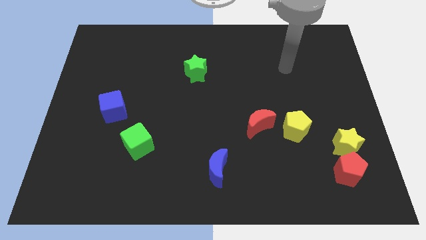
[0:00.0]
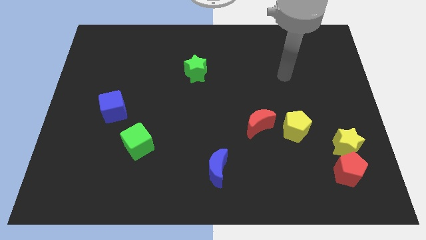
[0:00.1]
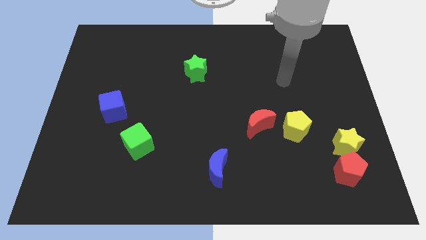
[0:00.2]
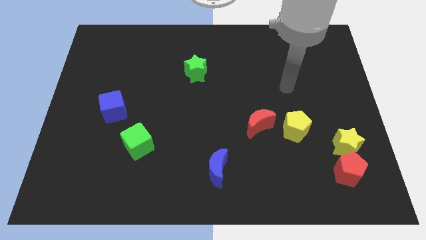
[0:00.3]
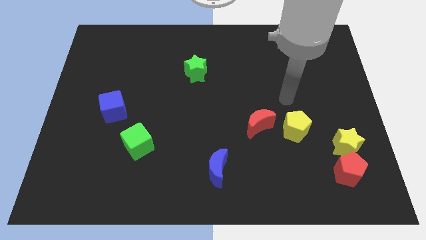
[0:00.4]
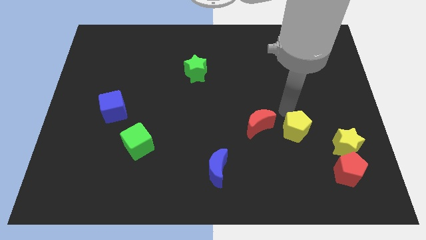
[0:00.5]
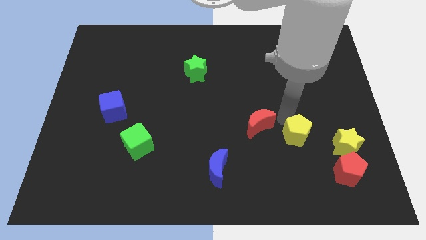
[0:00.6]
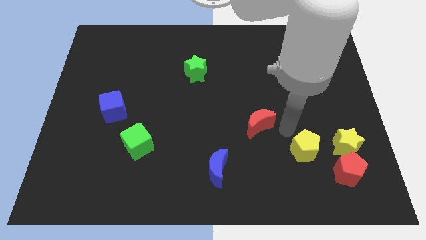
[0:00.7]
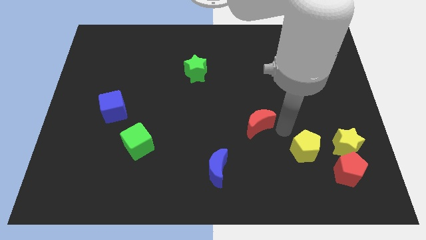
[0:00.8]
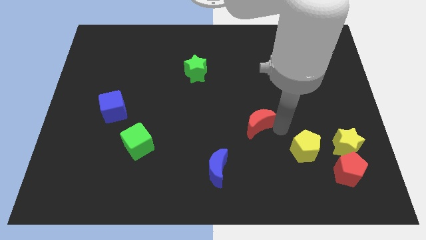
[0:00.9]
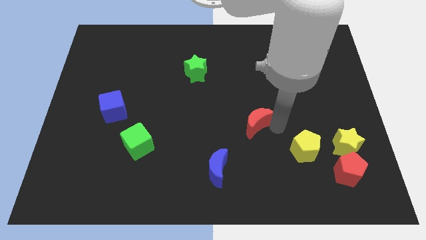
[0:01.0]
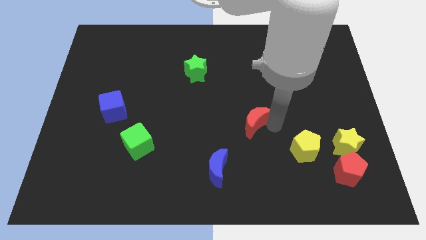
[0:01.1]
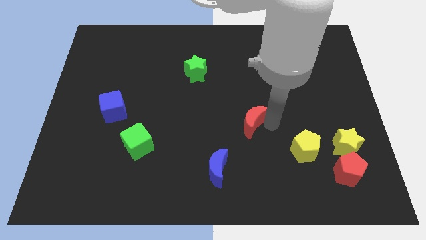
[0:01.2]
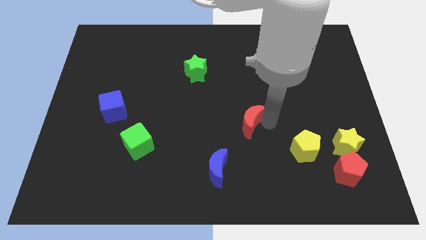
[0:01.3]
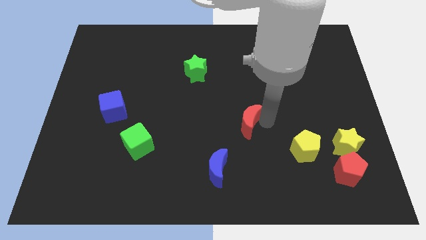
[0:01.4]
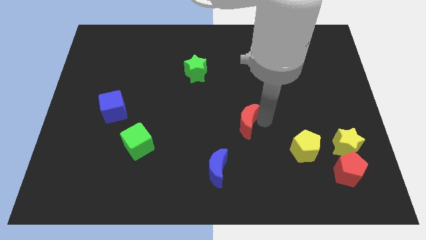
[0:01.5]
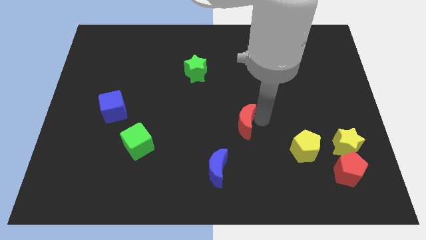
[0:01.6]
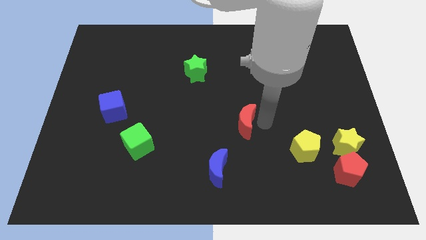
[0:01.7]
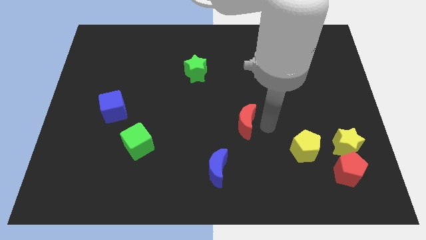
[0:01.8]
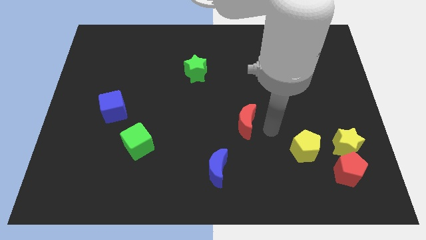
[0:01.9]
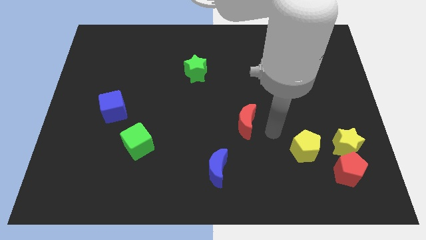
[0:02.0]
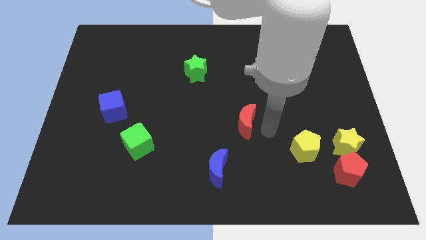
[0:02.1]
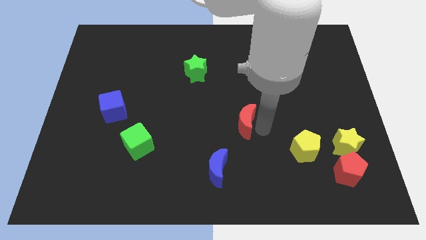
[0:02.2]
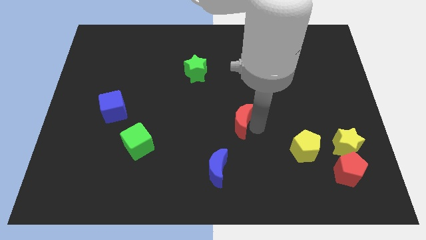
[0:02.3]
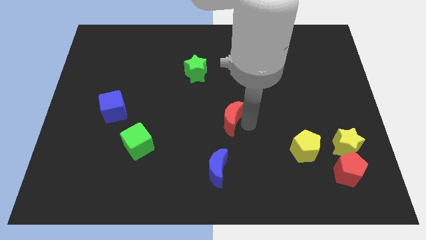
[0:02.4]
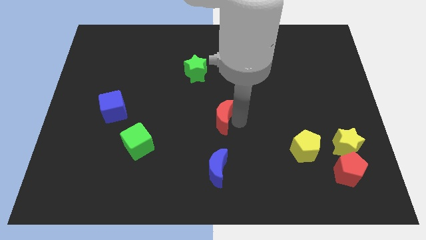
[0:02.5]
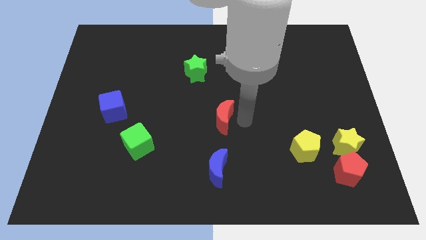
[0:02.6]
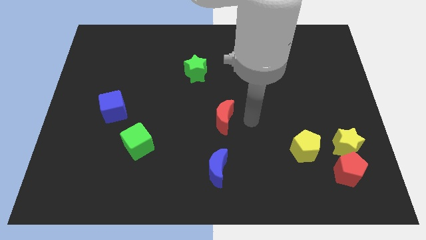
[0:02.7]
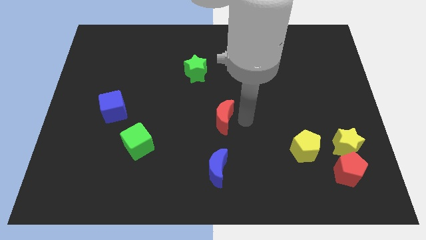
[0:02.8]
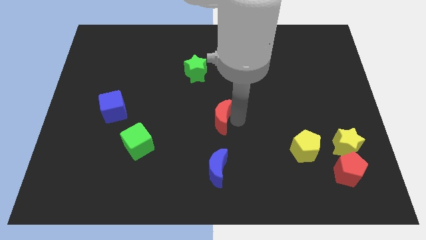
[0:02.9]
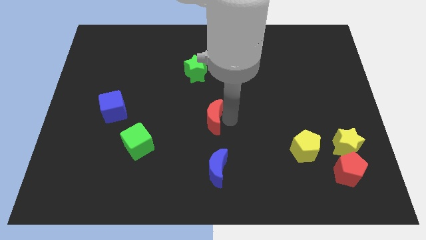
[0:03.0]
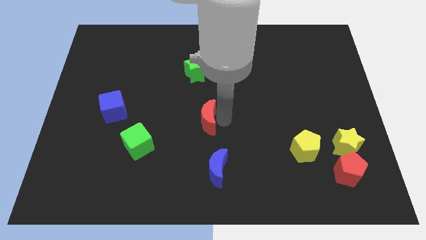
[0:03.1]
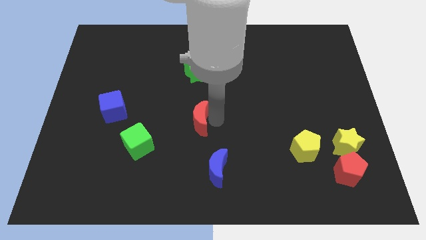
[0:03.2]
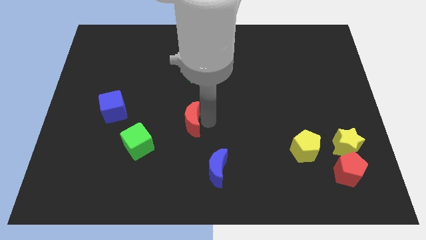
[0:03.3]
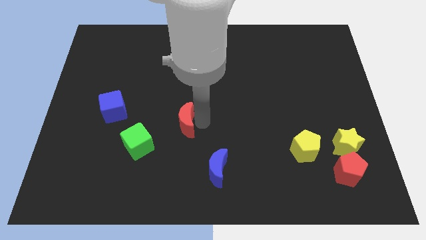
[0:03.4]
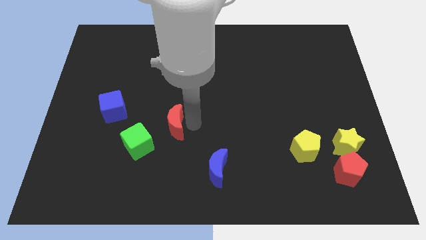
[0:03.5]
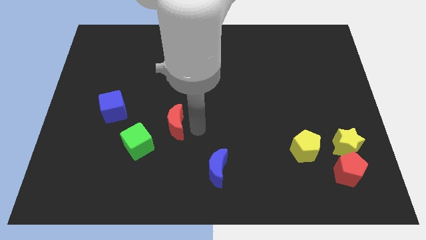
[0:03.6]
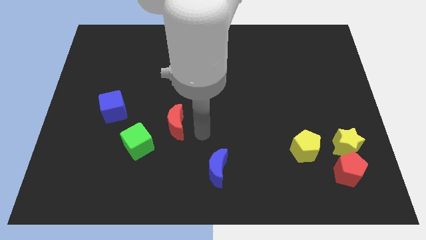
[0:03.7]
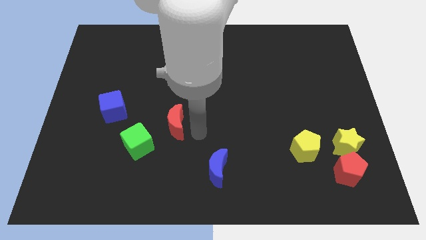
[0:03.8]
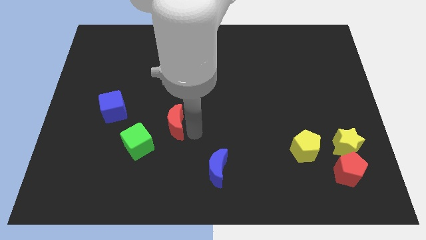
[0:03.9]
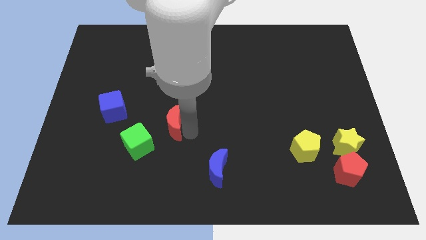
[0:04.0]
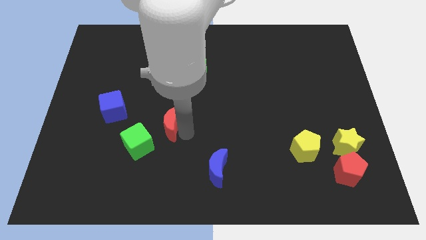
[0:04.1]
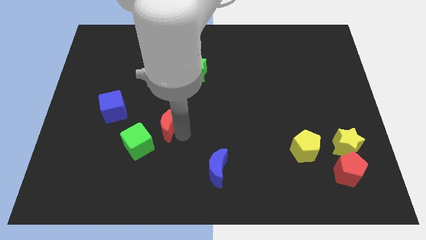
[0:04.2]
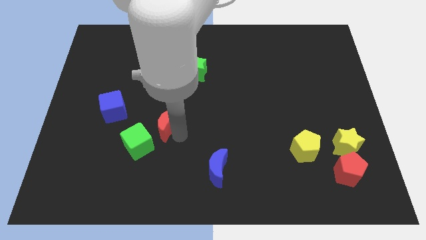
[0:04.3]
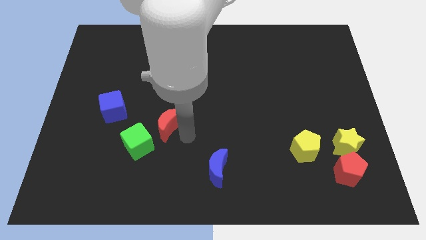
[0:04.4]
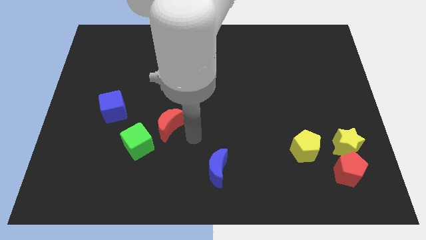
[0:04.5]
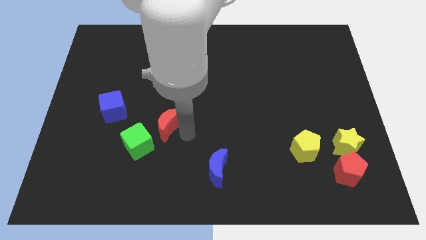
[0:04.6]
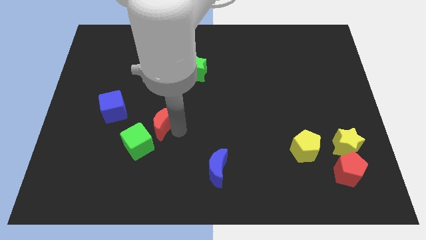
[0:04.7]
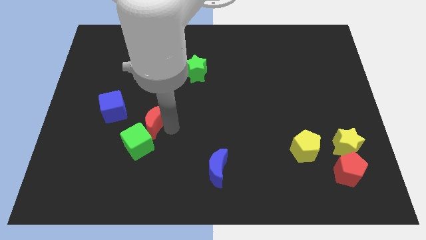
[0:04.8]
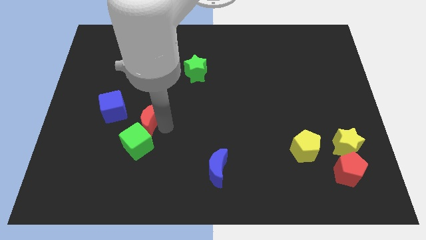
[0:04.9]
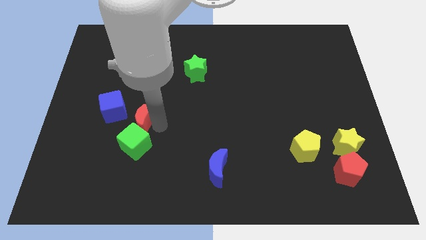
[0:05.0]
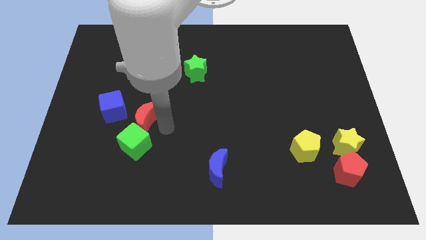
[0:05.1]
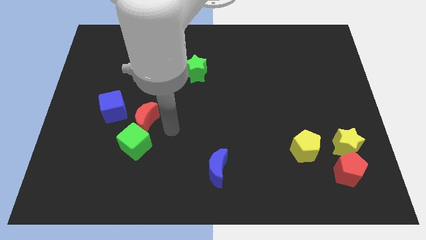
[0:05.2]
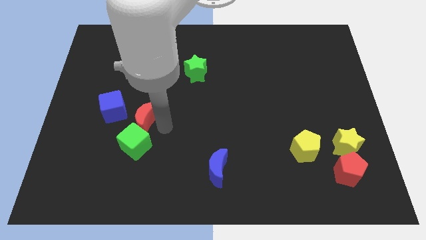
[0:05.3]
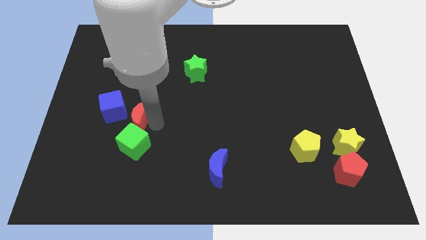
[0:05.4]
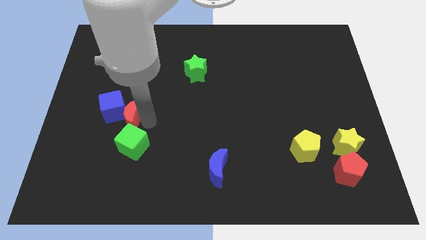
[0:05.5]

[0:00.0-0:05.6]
push the red moon towards the blue cube

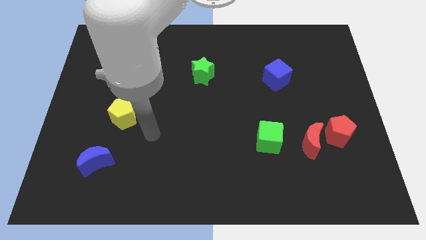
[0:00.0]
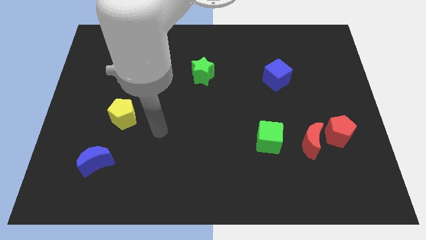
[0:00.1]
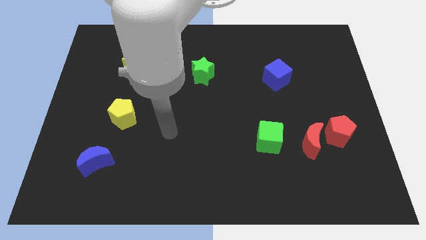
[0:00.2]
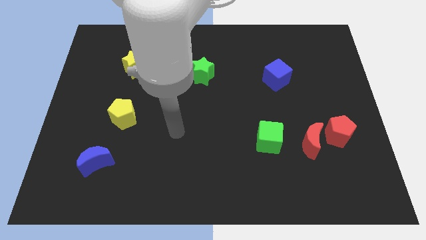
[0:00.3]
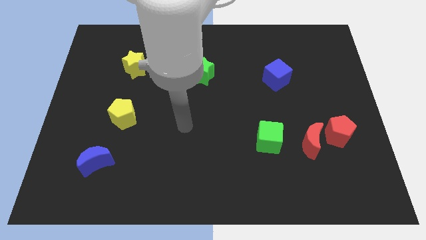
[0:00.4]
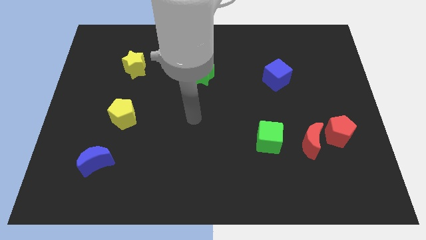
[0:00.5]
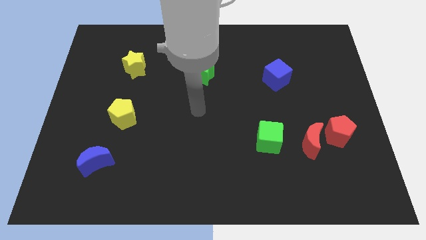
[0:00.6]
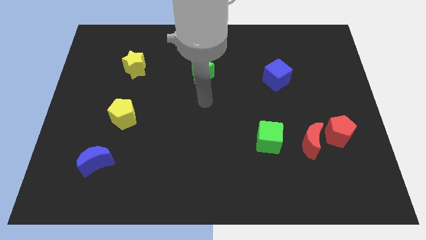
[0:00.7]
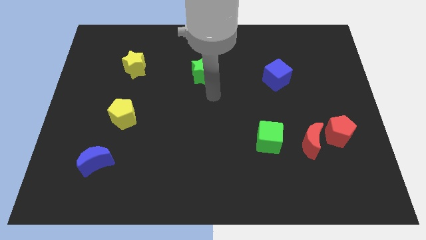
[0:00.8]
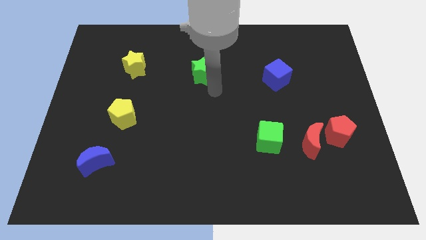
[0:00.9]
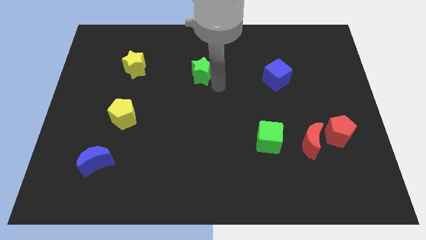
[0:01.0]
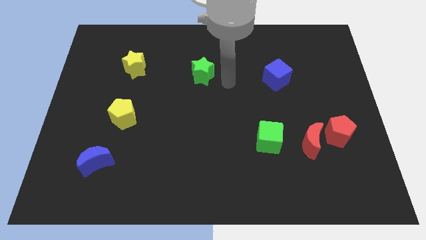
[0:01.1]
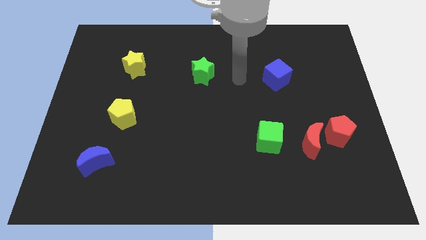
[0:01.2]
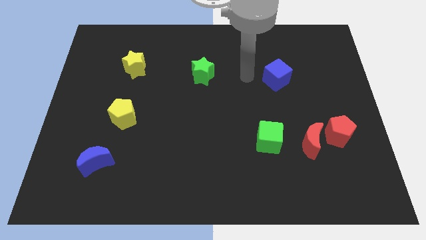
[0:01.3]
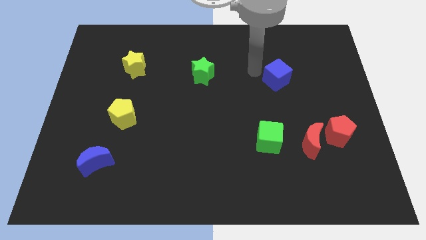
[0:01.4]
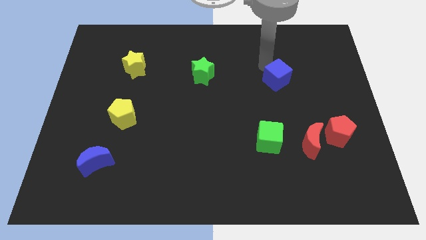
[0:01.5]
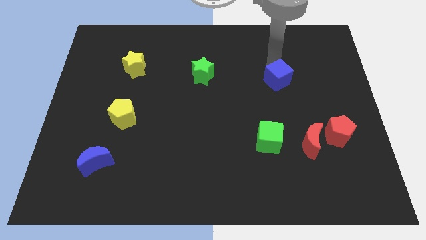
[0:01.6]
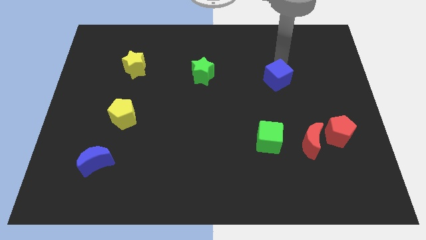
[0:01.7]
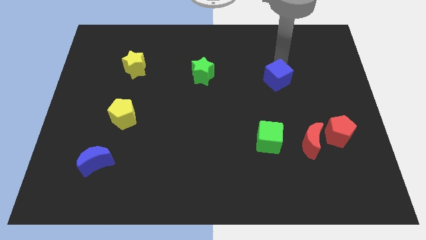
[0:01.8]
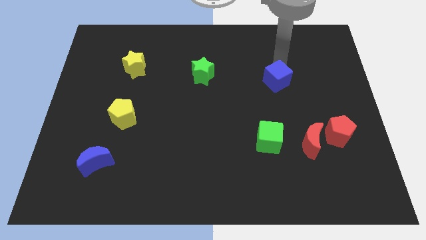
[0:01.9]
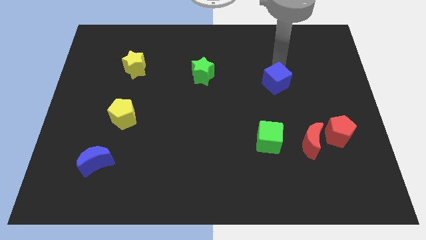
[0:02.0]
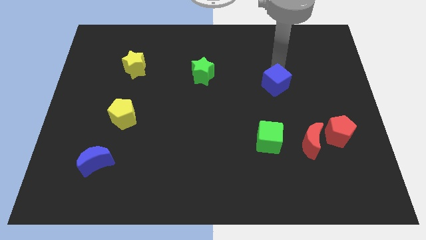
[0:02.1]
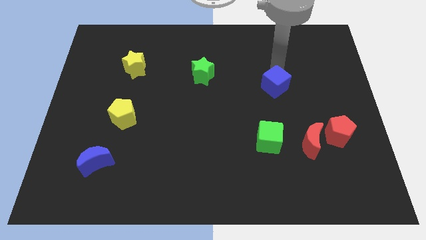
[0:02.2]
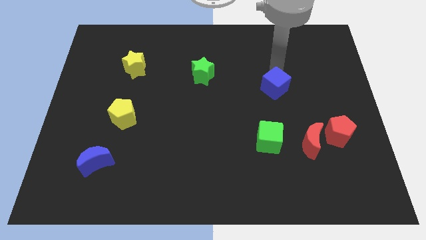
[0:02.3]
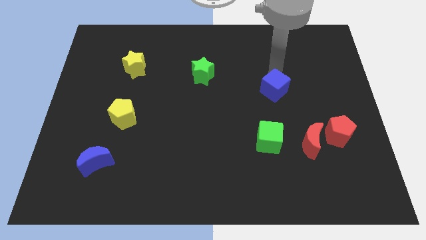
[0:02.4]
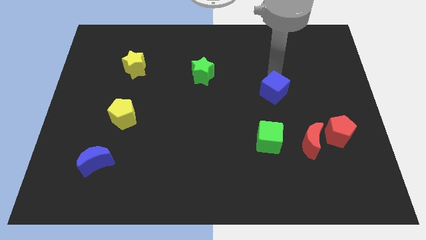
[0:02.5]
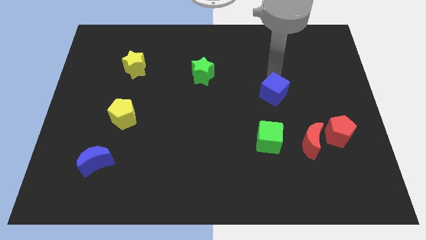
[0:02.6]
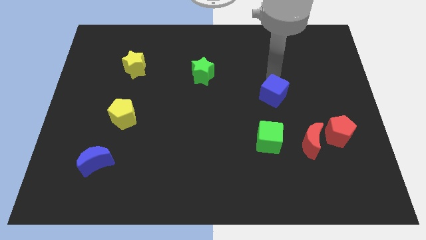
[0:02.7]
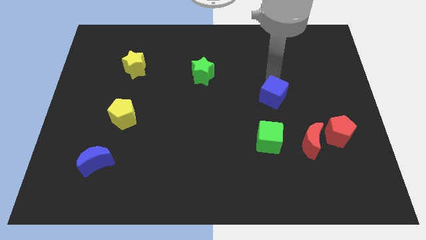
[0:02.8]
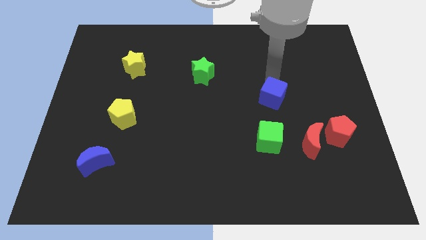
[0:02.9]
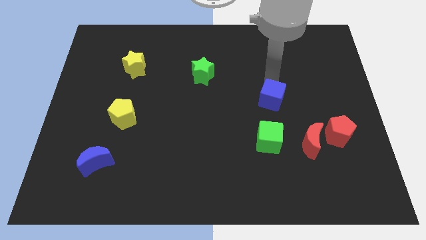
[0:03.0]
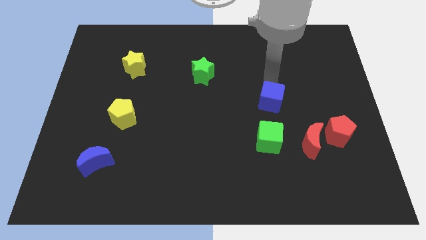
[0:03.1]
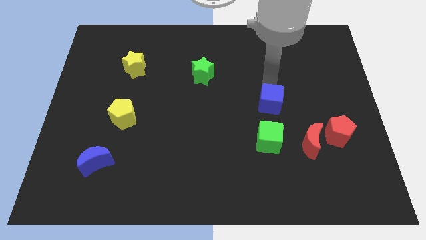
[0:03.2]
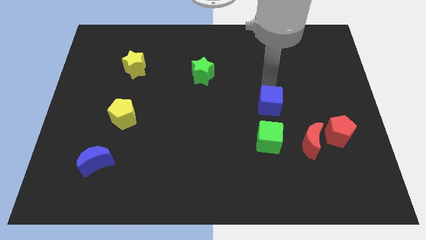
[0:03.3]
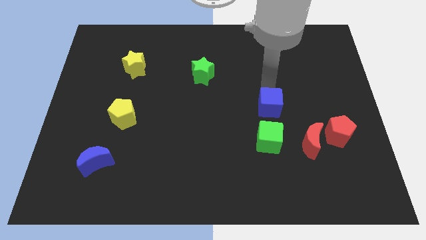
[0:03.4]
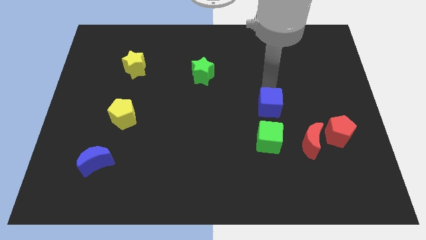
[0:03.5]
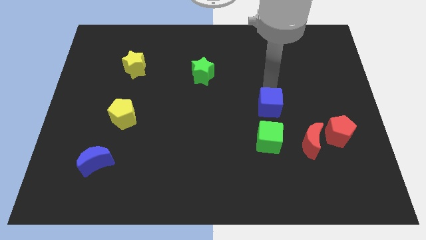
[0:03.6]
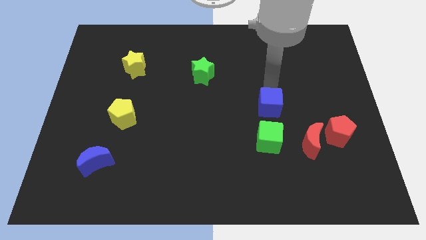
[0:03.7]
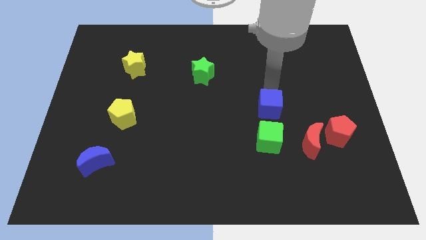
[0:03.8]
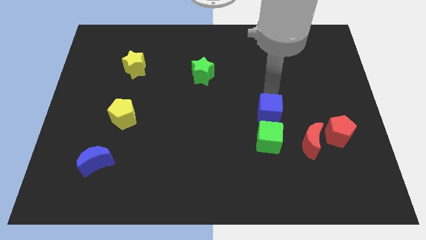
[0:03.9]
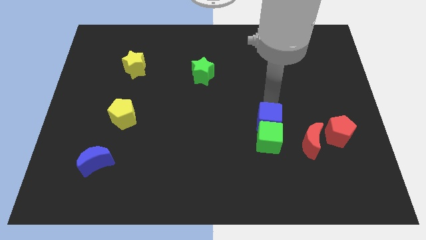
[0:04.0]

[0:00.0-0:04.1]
push the blue cube close to the green cube
